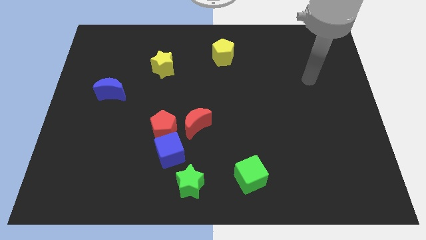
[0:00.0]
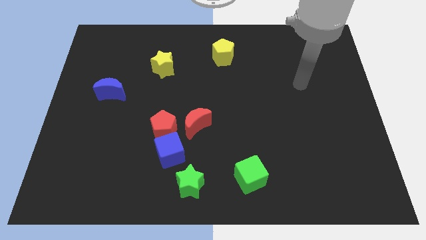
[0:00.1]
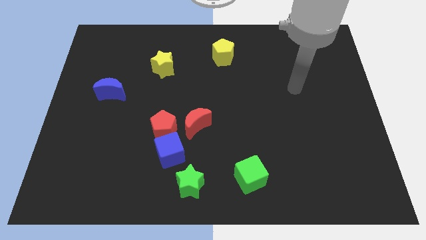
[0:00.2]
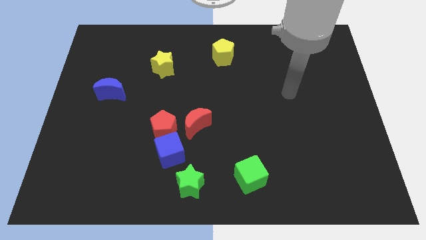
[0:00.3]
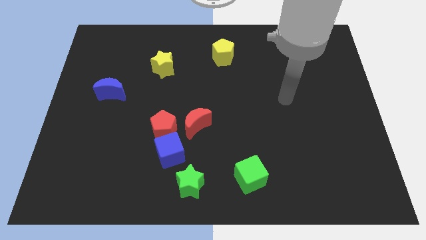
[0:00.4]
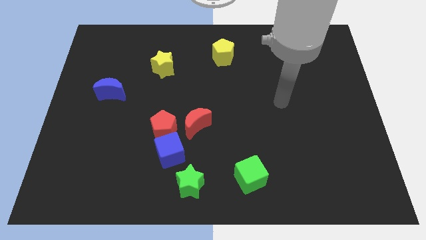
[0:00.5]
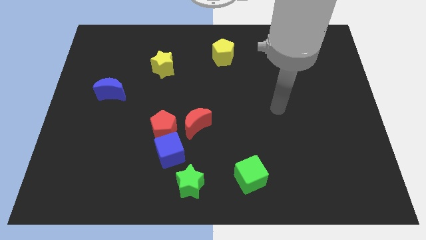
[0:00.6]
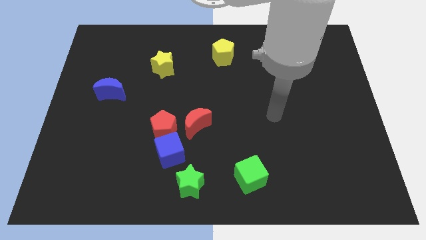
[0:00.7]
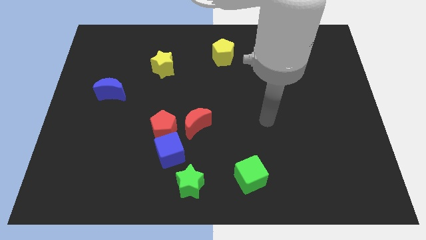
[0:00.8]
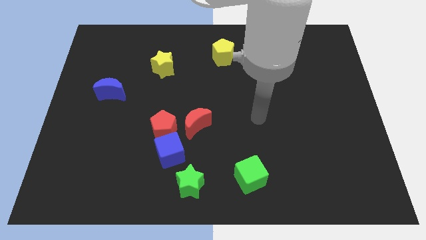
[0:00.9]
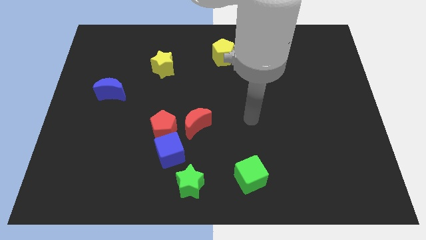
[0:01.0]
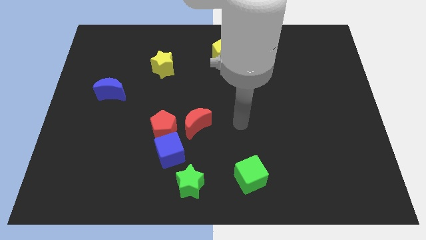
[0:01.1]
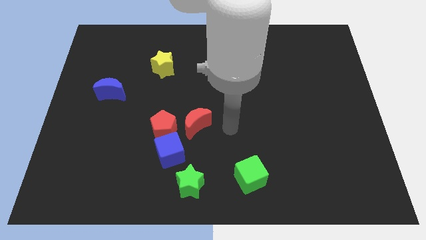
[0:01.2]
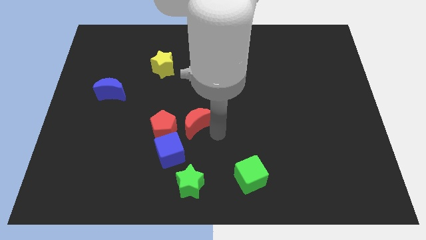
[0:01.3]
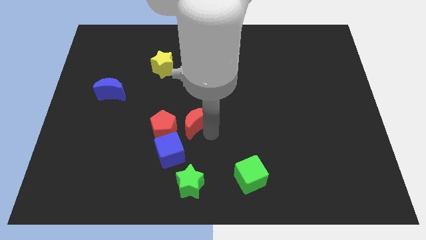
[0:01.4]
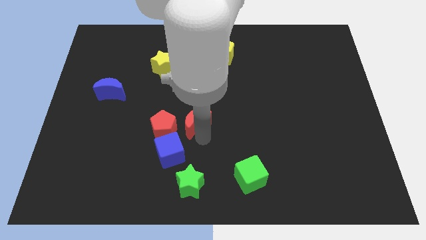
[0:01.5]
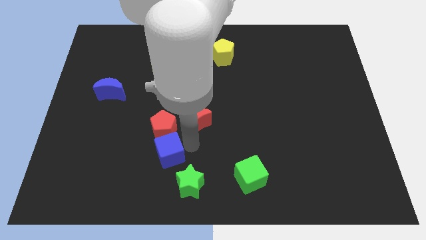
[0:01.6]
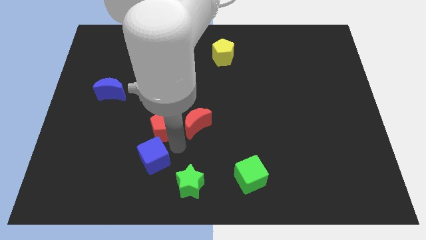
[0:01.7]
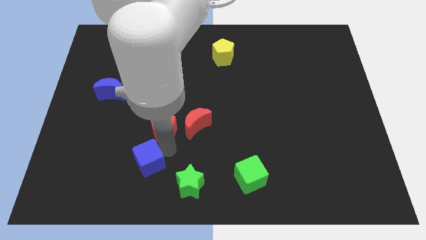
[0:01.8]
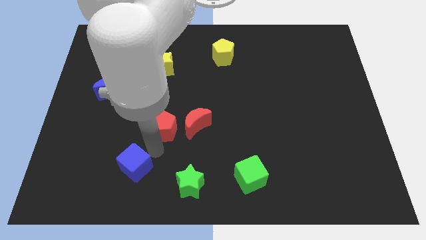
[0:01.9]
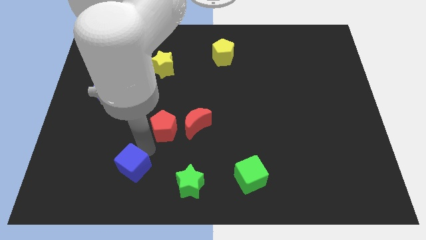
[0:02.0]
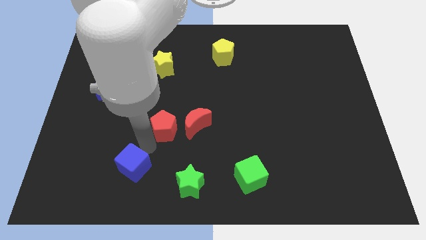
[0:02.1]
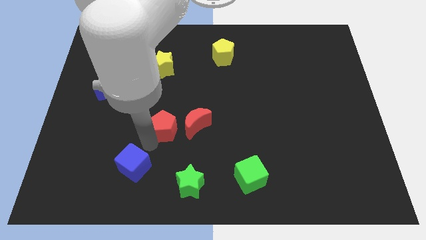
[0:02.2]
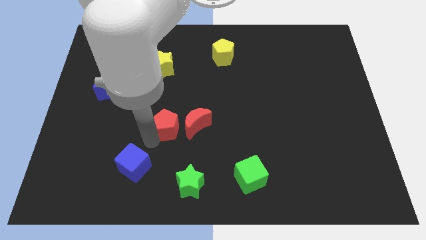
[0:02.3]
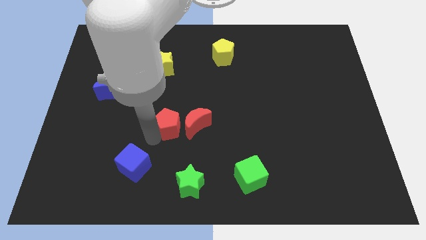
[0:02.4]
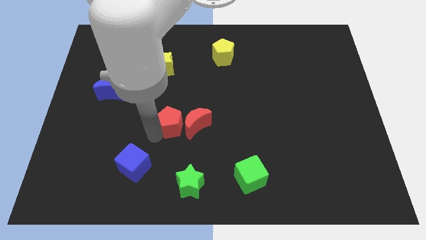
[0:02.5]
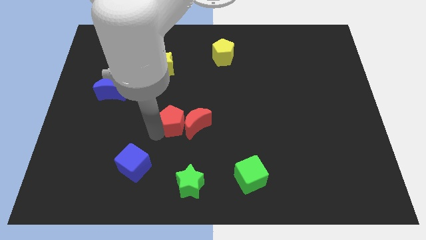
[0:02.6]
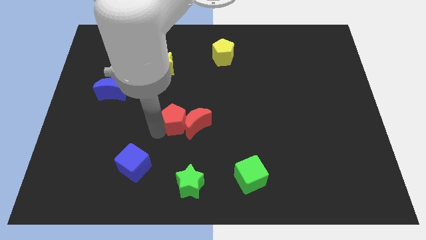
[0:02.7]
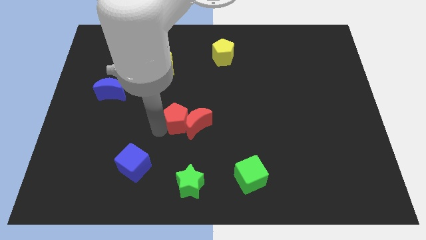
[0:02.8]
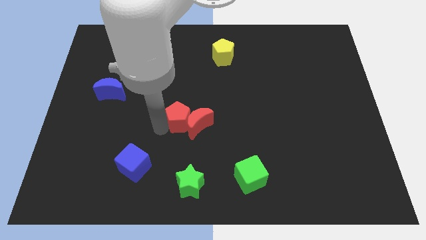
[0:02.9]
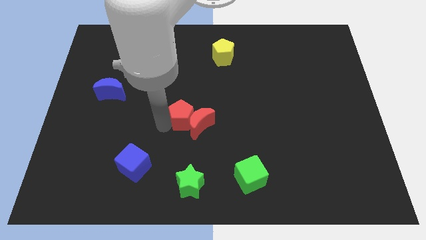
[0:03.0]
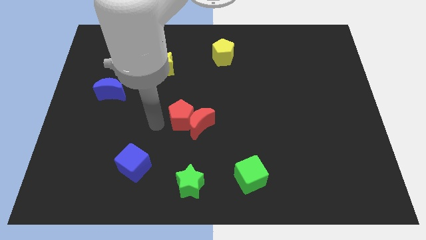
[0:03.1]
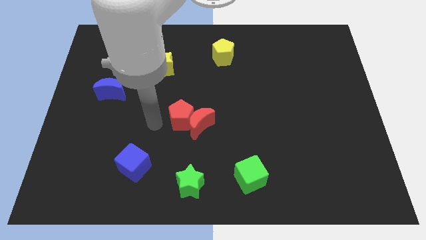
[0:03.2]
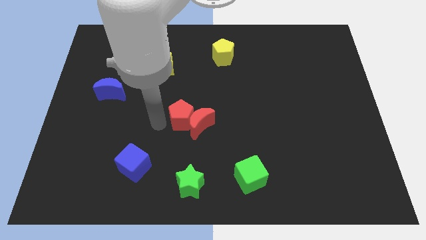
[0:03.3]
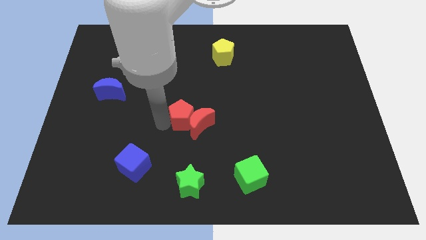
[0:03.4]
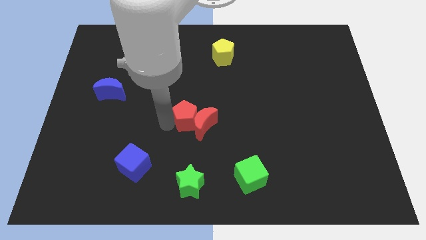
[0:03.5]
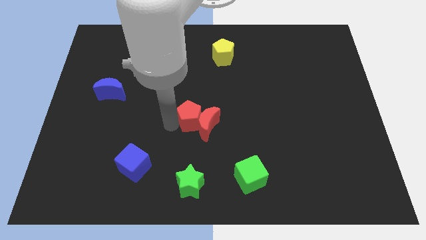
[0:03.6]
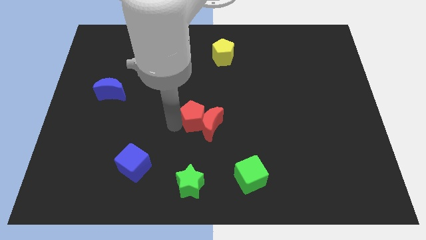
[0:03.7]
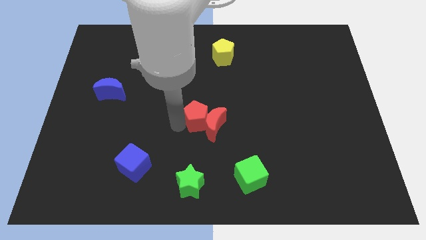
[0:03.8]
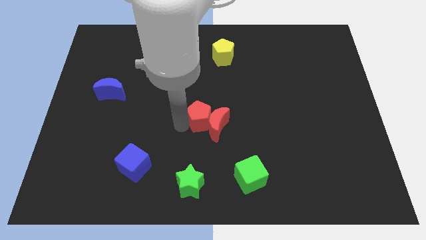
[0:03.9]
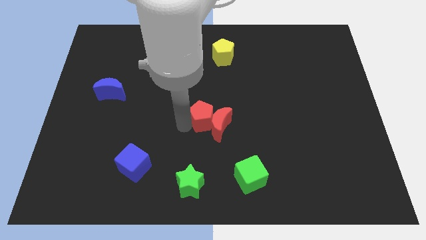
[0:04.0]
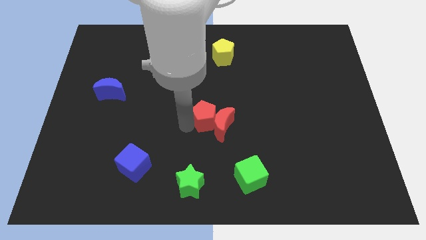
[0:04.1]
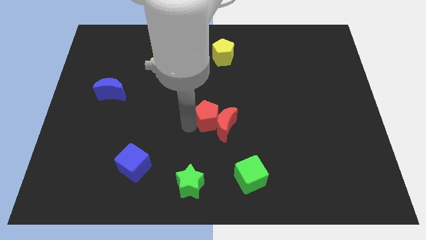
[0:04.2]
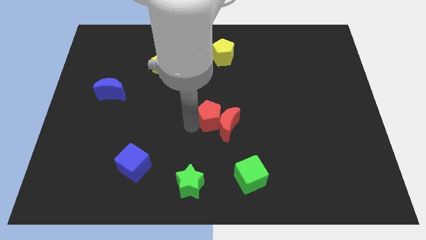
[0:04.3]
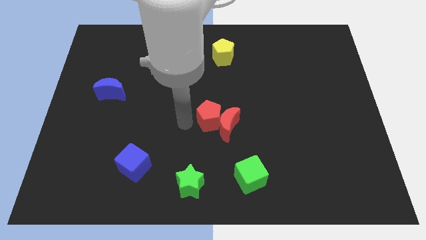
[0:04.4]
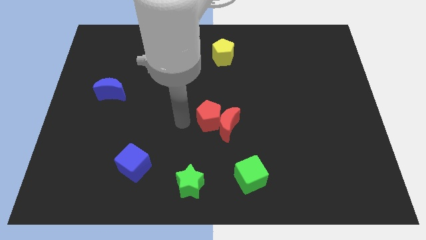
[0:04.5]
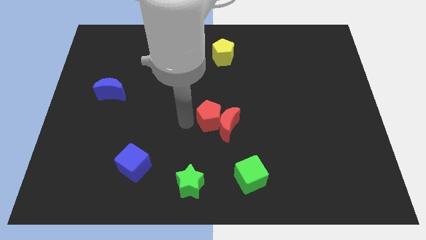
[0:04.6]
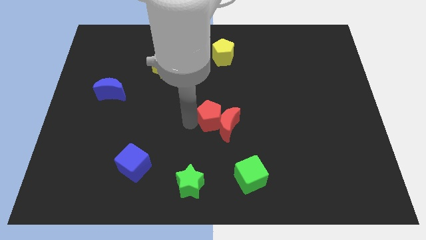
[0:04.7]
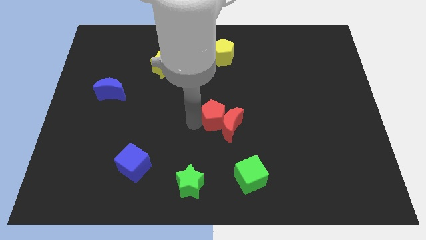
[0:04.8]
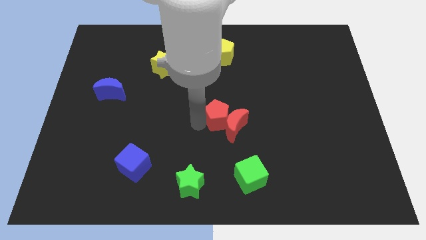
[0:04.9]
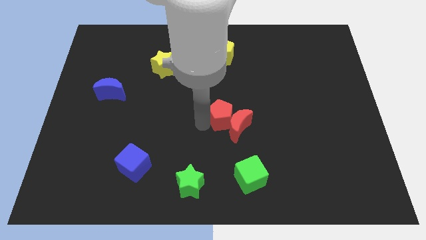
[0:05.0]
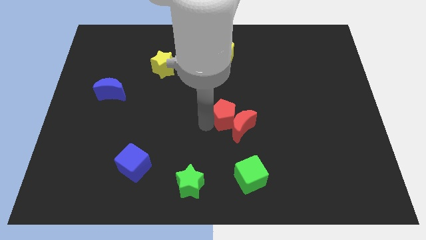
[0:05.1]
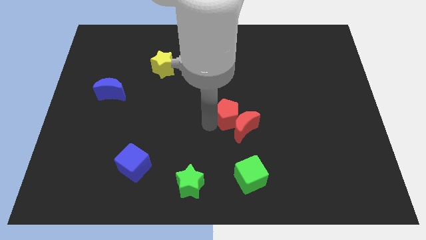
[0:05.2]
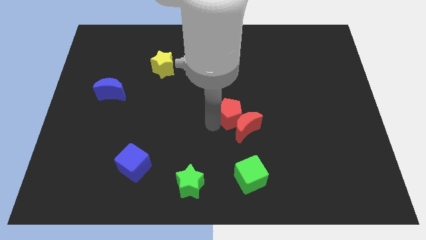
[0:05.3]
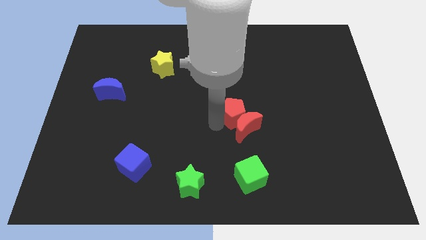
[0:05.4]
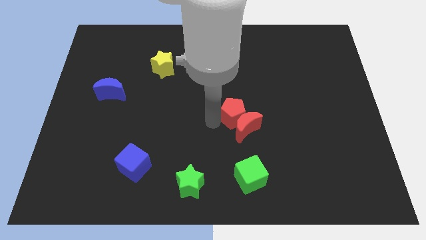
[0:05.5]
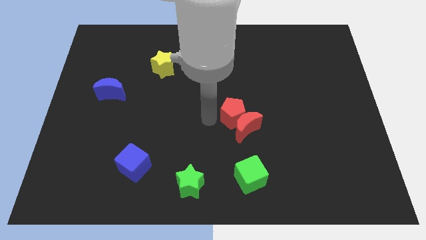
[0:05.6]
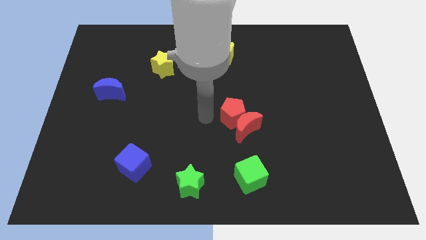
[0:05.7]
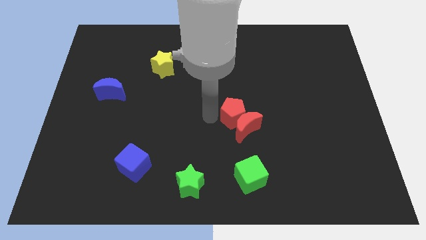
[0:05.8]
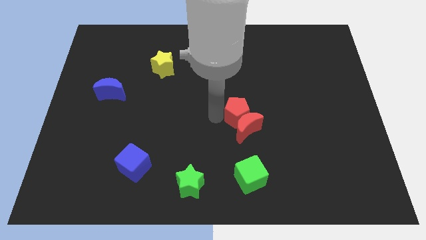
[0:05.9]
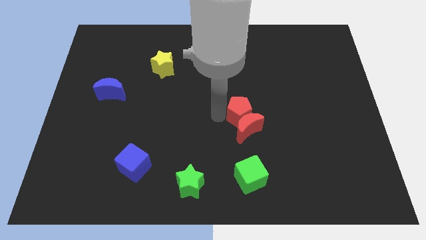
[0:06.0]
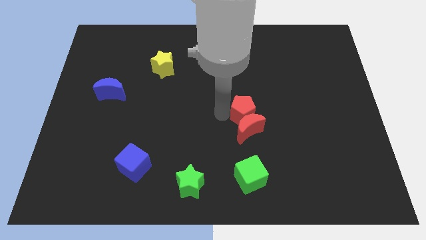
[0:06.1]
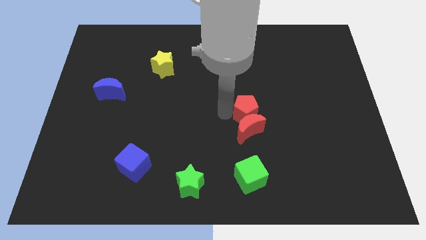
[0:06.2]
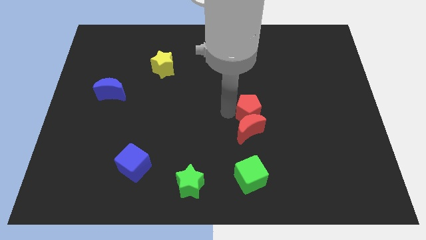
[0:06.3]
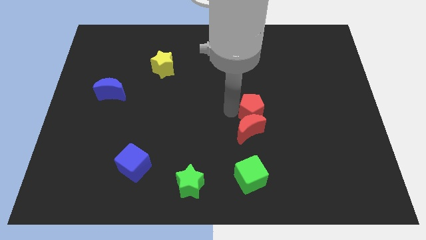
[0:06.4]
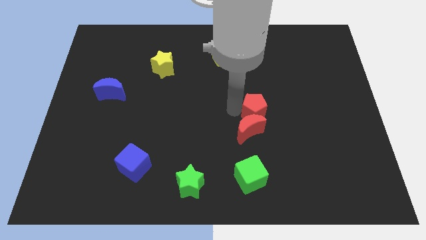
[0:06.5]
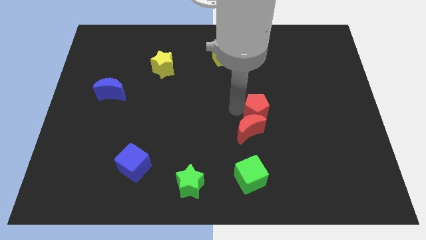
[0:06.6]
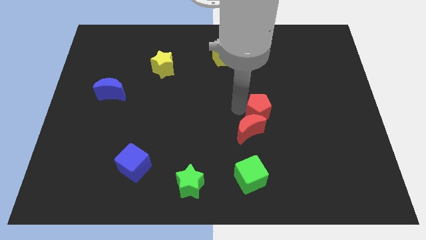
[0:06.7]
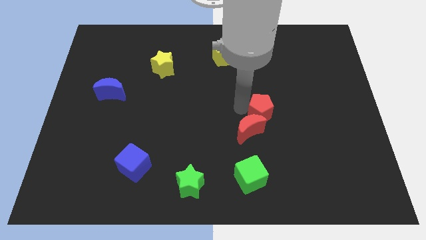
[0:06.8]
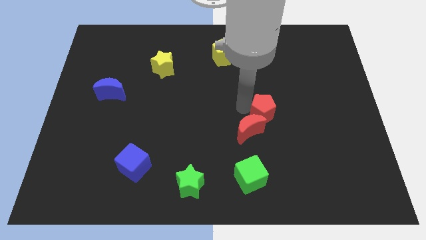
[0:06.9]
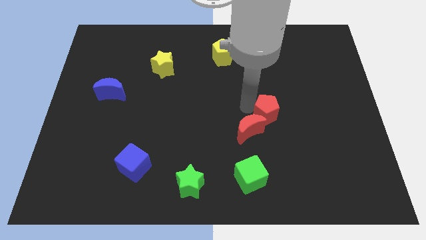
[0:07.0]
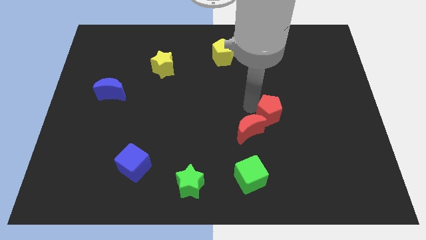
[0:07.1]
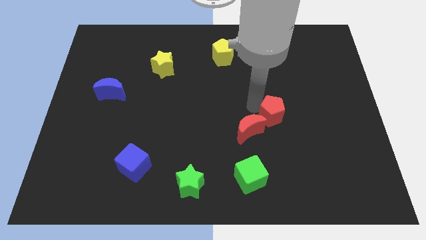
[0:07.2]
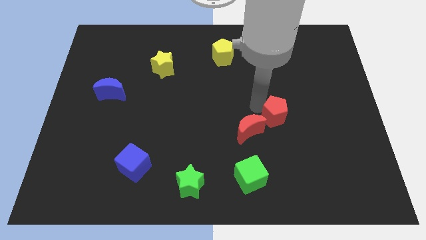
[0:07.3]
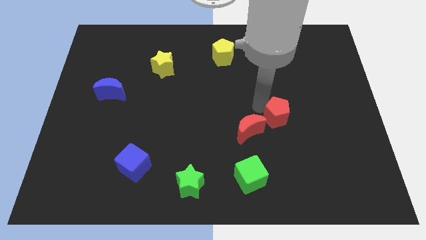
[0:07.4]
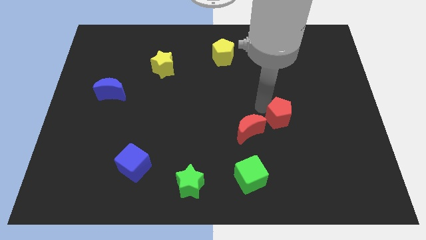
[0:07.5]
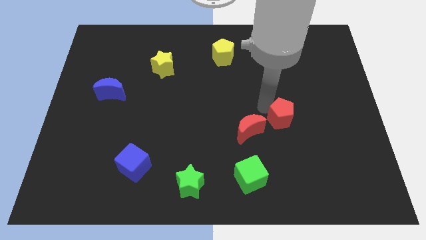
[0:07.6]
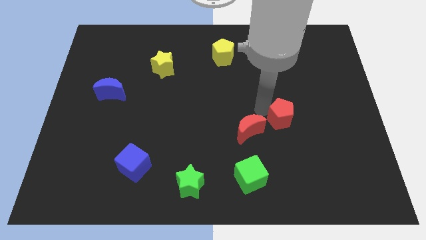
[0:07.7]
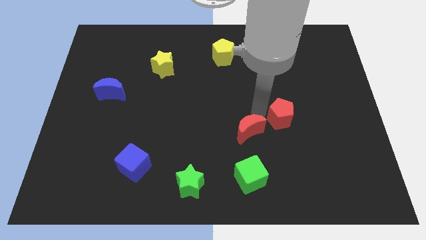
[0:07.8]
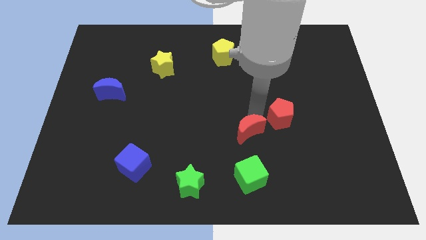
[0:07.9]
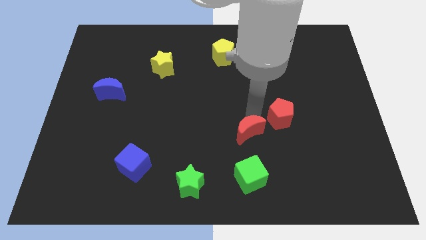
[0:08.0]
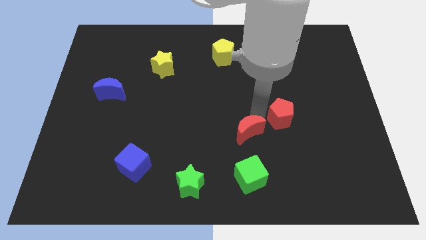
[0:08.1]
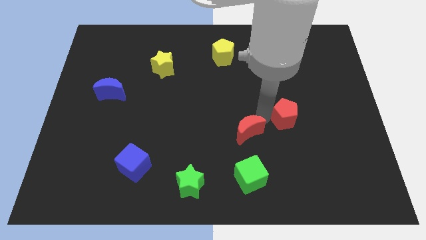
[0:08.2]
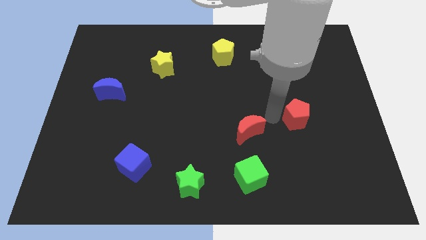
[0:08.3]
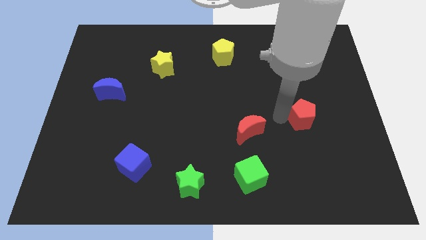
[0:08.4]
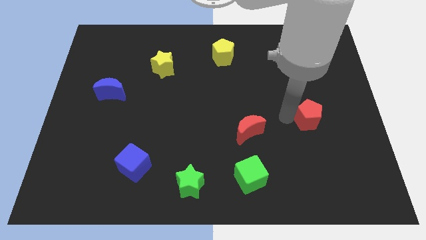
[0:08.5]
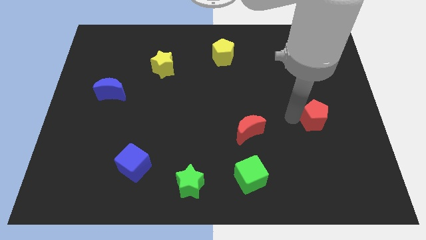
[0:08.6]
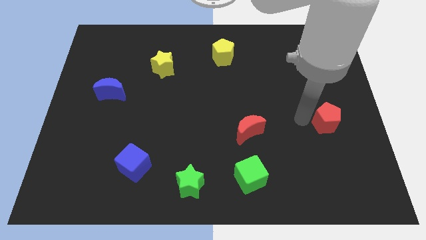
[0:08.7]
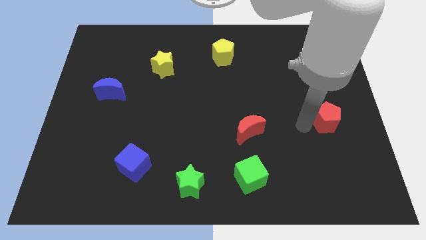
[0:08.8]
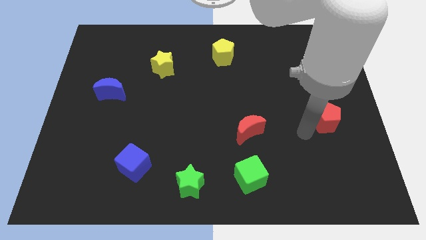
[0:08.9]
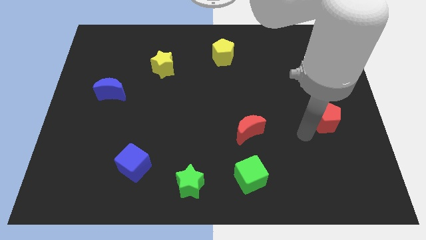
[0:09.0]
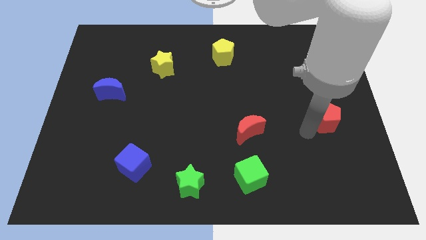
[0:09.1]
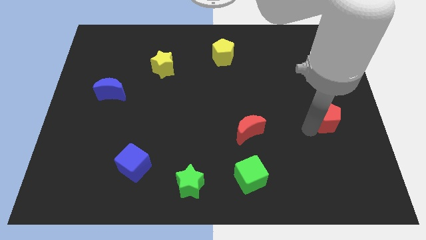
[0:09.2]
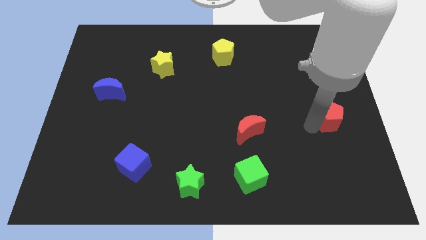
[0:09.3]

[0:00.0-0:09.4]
push the red pentagon to the right side
